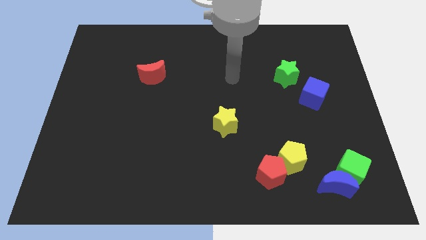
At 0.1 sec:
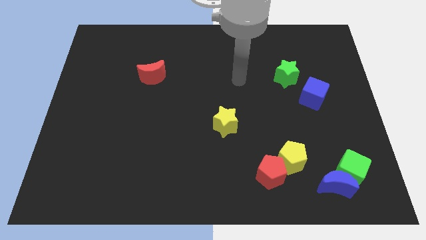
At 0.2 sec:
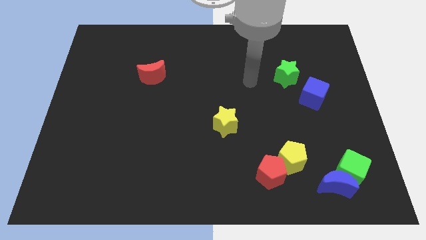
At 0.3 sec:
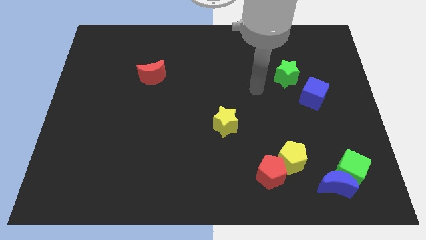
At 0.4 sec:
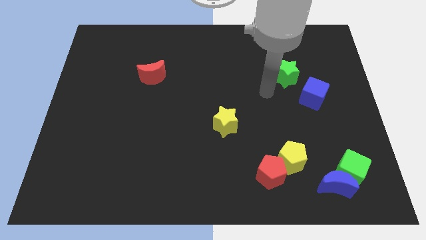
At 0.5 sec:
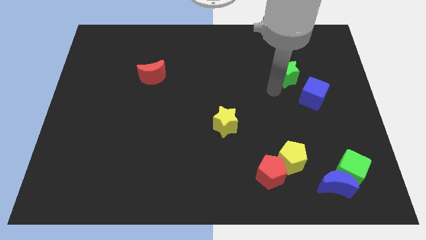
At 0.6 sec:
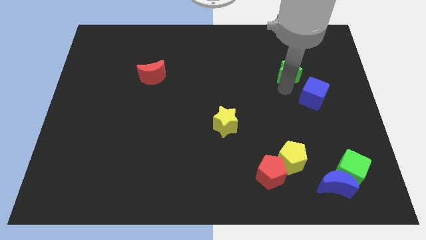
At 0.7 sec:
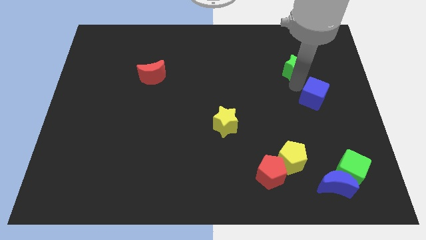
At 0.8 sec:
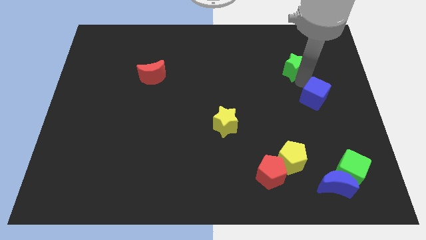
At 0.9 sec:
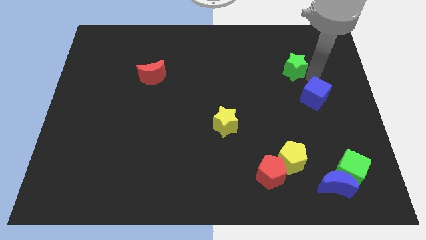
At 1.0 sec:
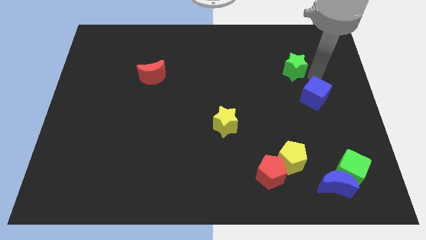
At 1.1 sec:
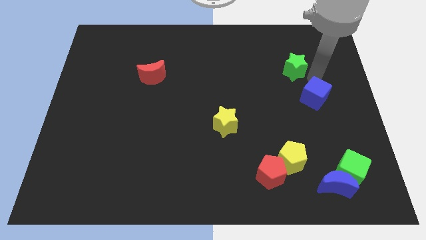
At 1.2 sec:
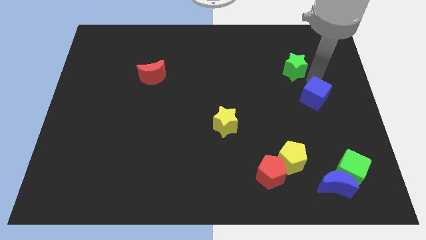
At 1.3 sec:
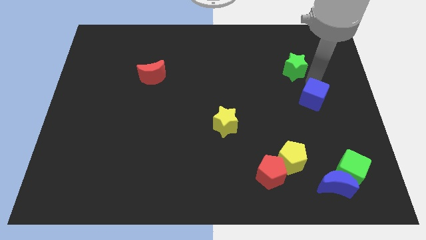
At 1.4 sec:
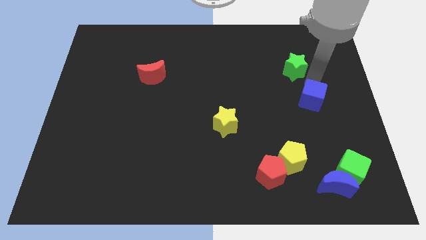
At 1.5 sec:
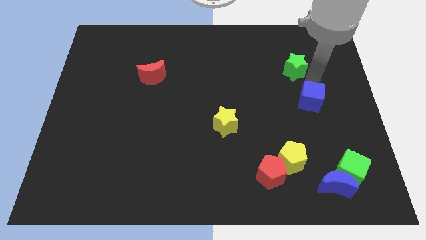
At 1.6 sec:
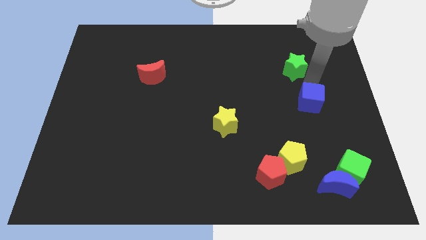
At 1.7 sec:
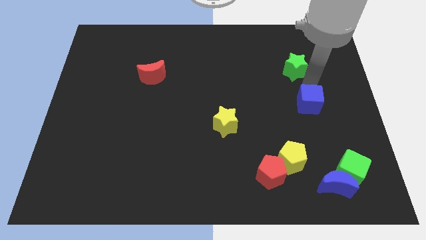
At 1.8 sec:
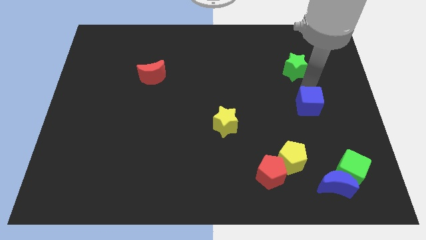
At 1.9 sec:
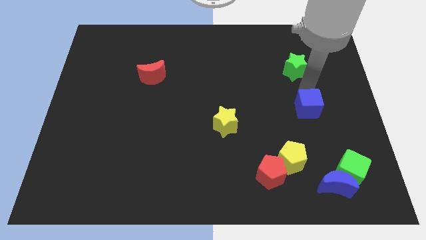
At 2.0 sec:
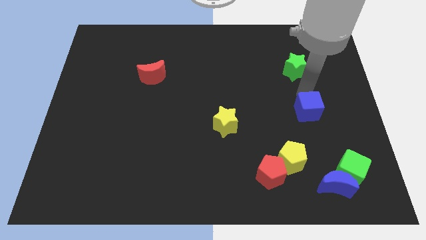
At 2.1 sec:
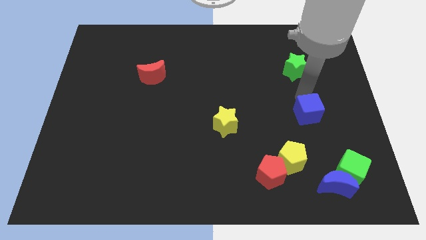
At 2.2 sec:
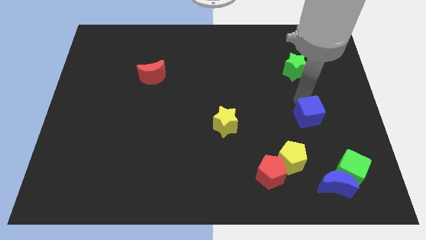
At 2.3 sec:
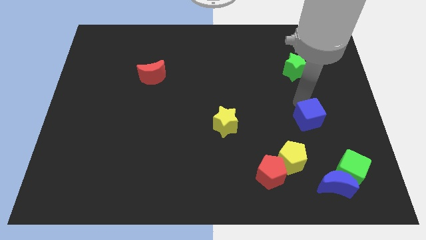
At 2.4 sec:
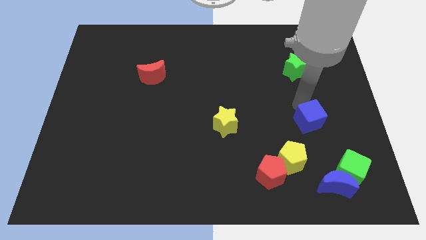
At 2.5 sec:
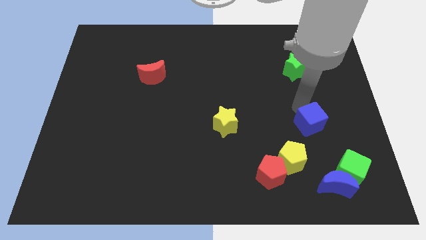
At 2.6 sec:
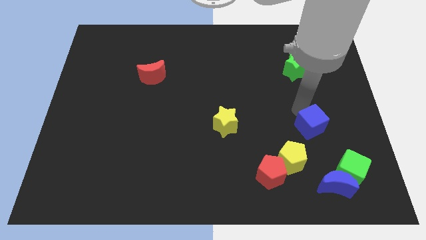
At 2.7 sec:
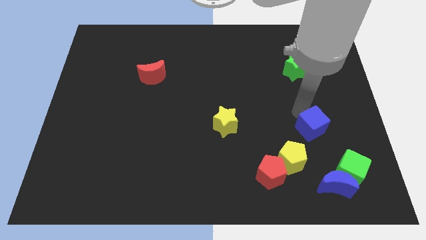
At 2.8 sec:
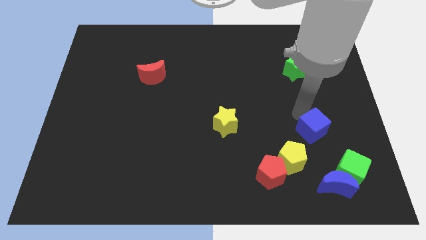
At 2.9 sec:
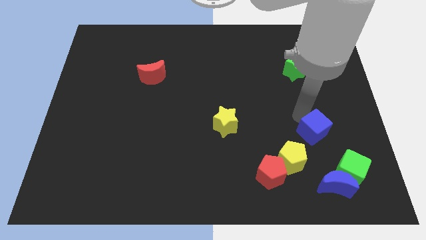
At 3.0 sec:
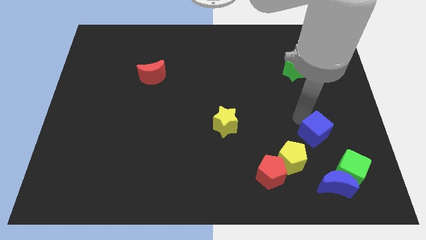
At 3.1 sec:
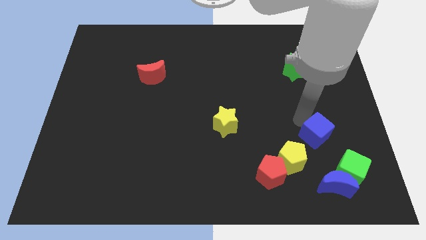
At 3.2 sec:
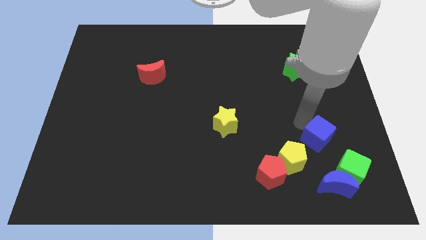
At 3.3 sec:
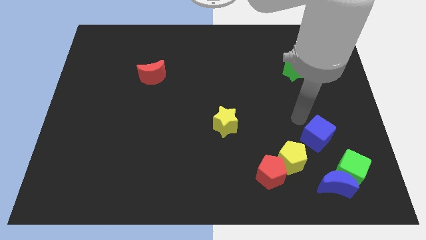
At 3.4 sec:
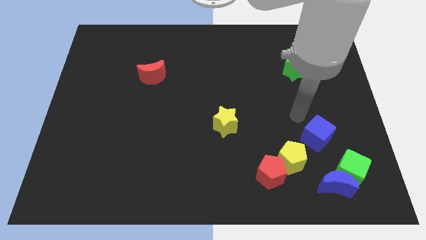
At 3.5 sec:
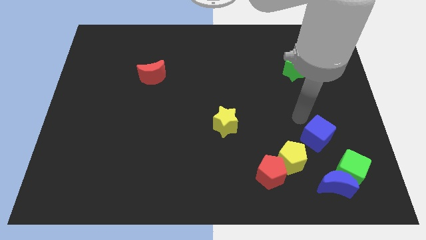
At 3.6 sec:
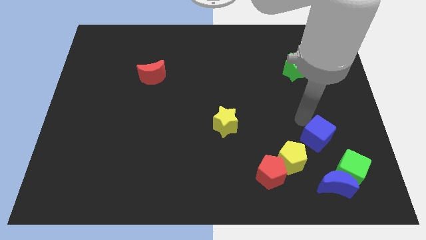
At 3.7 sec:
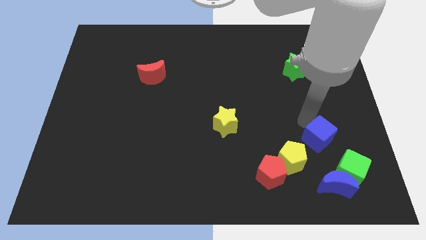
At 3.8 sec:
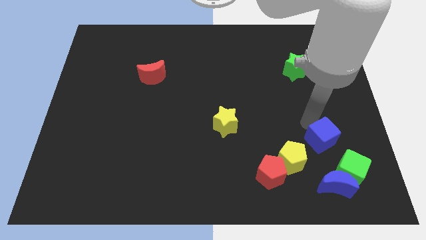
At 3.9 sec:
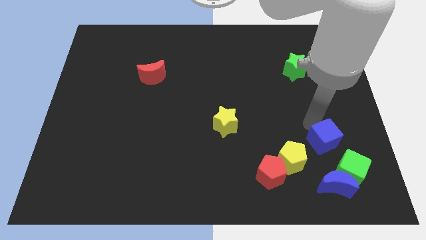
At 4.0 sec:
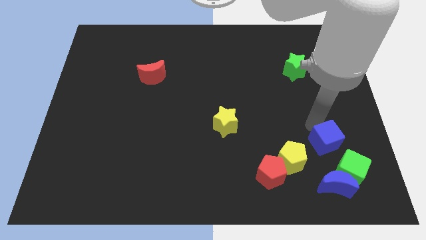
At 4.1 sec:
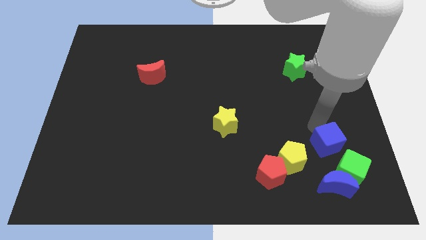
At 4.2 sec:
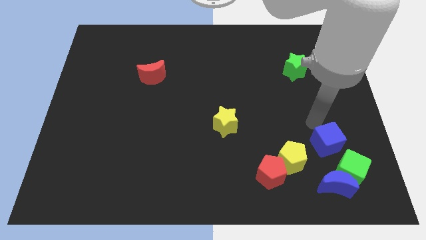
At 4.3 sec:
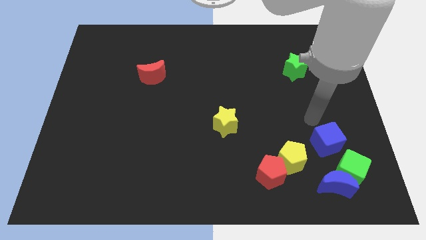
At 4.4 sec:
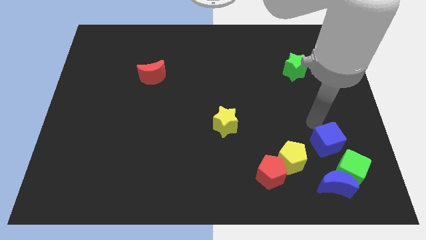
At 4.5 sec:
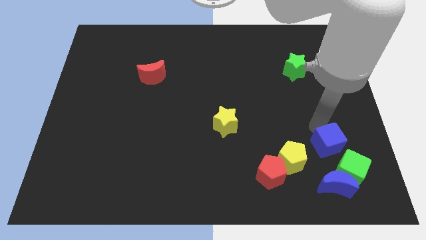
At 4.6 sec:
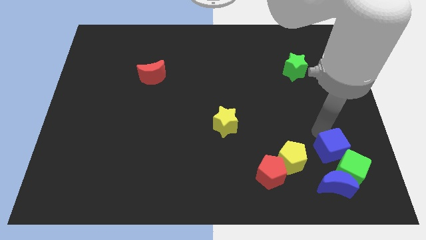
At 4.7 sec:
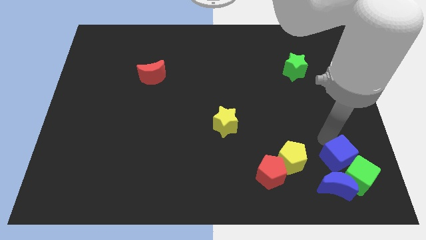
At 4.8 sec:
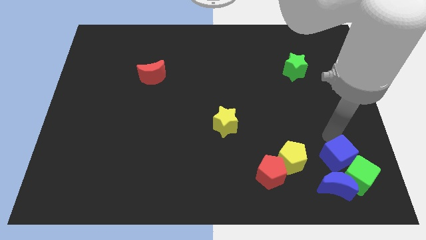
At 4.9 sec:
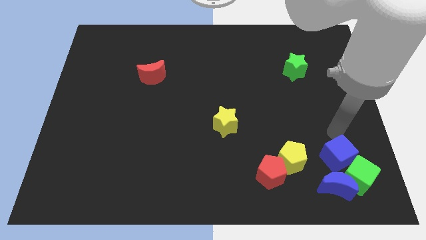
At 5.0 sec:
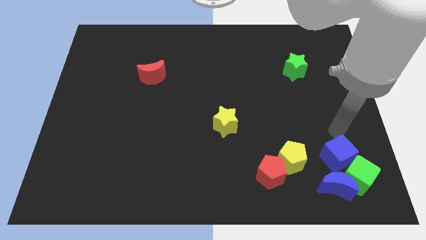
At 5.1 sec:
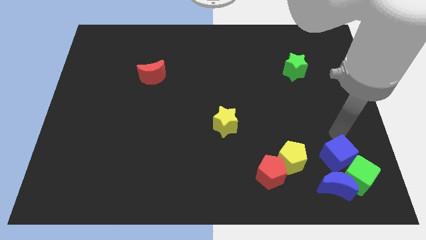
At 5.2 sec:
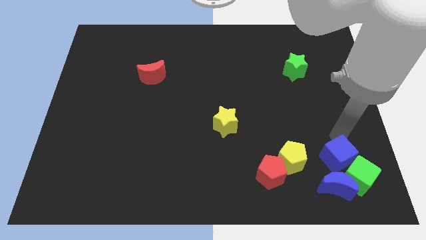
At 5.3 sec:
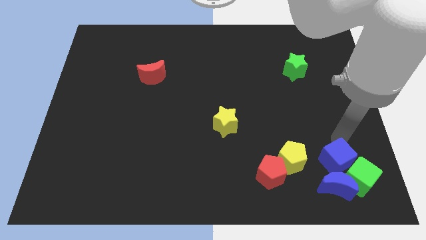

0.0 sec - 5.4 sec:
put the blue cube to the blue moon

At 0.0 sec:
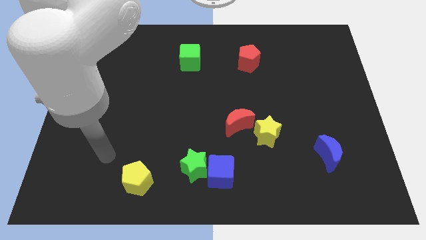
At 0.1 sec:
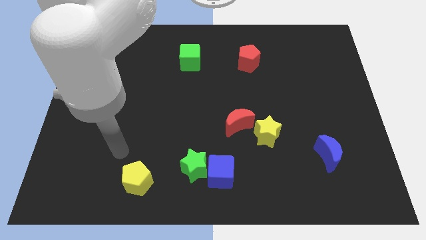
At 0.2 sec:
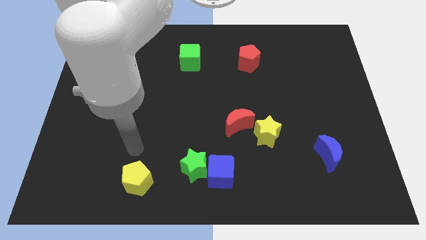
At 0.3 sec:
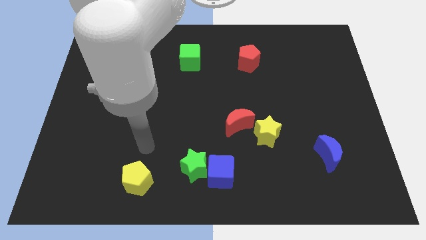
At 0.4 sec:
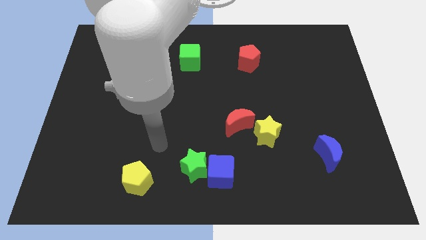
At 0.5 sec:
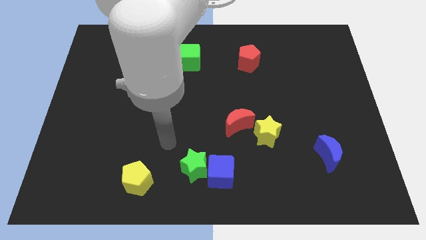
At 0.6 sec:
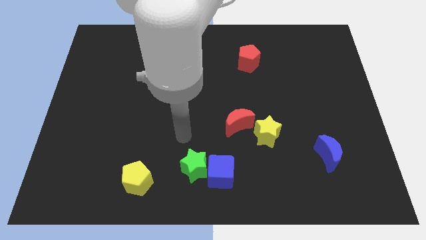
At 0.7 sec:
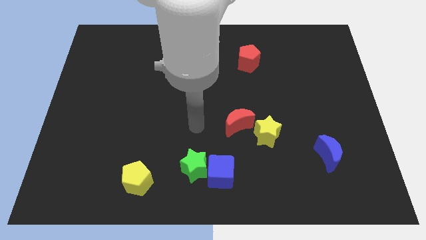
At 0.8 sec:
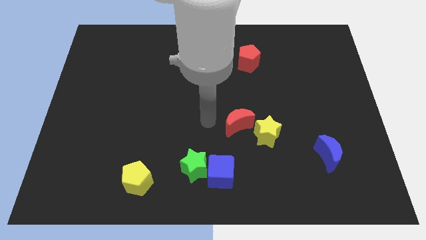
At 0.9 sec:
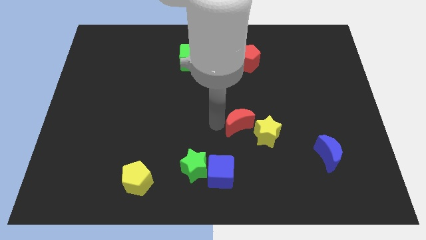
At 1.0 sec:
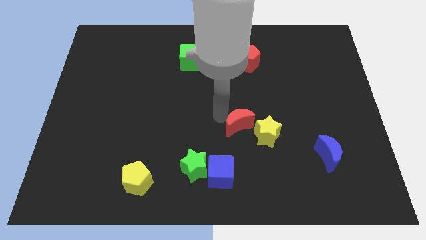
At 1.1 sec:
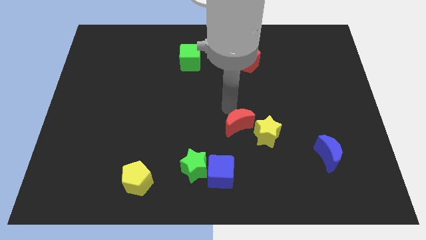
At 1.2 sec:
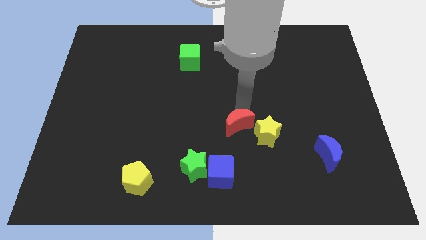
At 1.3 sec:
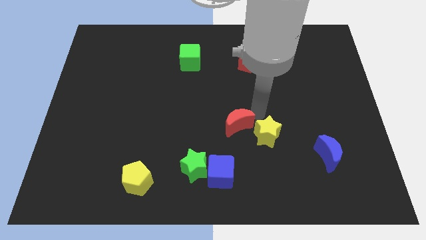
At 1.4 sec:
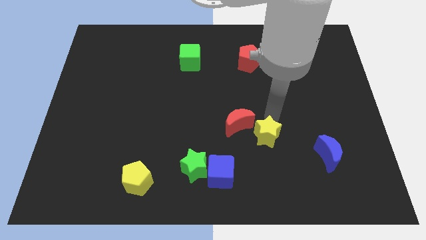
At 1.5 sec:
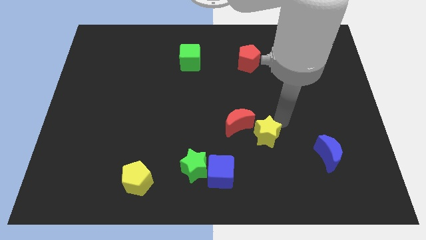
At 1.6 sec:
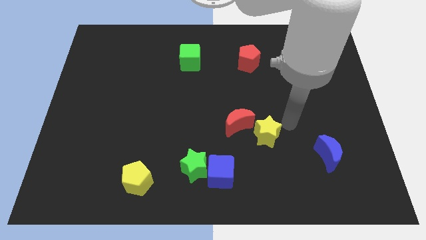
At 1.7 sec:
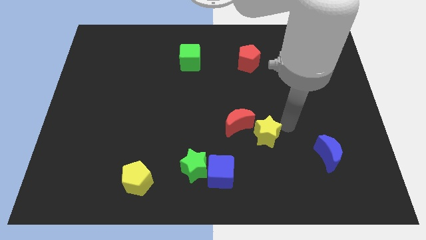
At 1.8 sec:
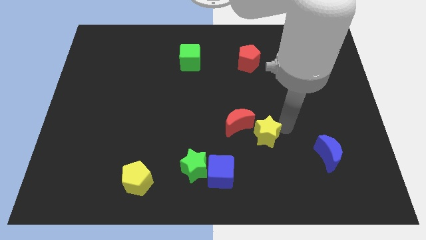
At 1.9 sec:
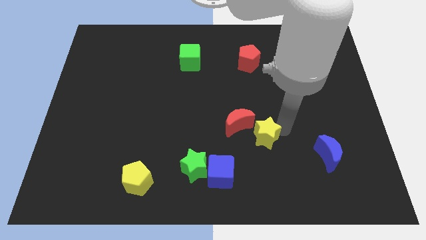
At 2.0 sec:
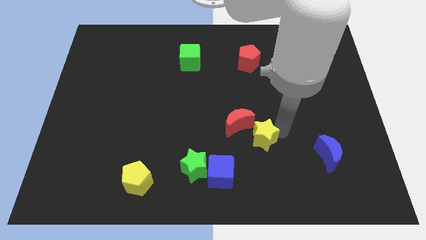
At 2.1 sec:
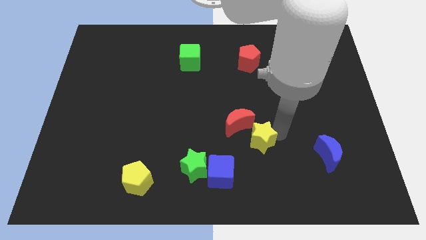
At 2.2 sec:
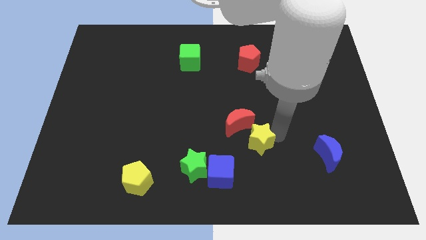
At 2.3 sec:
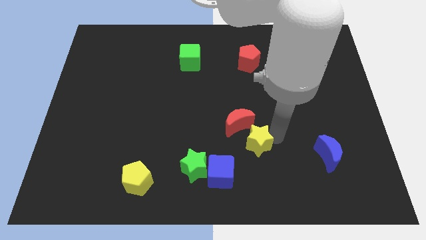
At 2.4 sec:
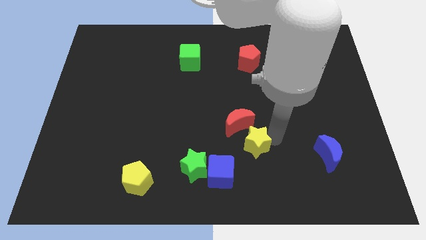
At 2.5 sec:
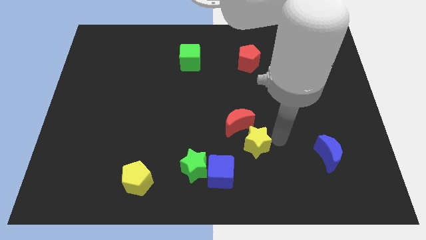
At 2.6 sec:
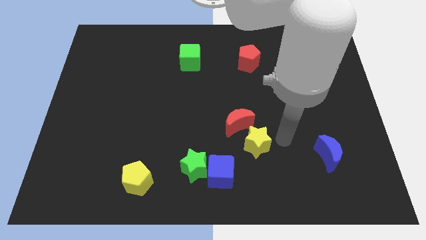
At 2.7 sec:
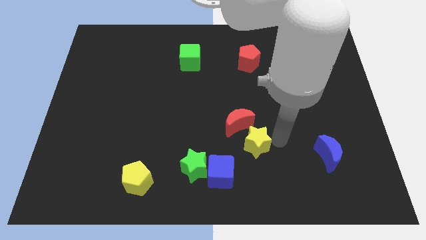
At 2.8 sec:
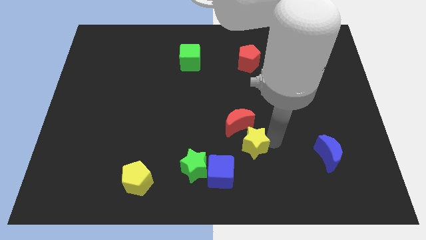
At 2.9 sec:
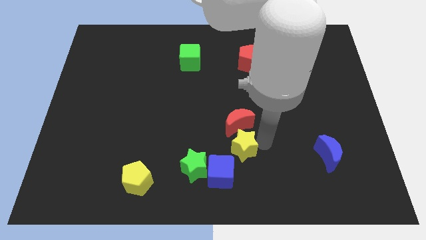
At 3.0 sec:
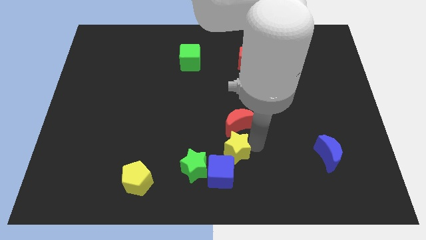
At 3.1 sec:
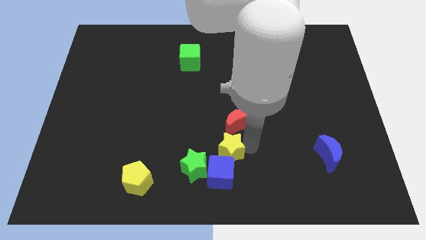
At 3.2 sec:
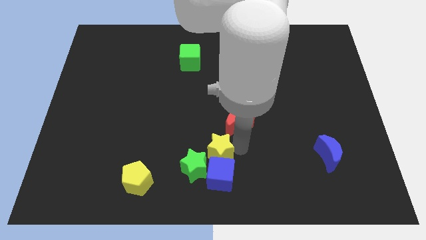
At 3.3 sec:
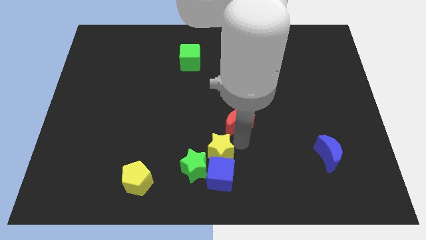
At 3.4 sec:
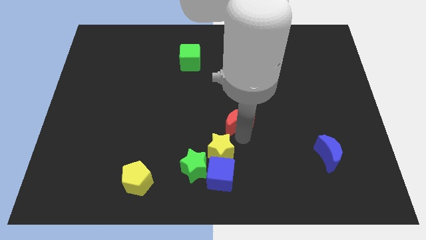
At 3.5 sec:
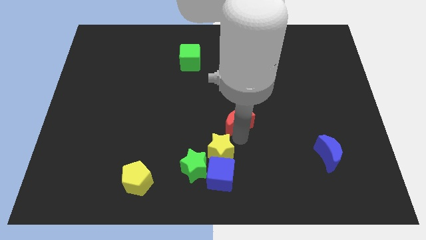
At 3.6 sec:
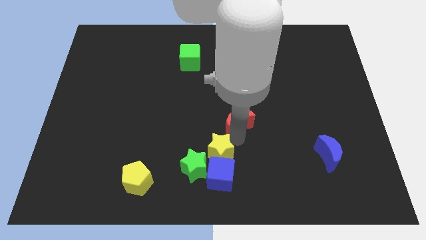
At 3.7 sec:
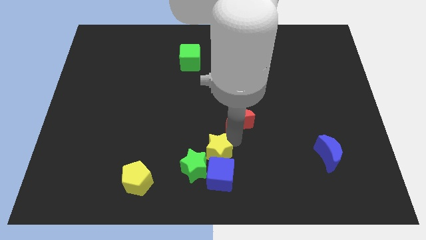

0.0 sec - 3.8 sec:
move the yellow star towards the green star
